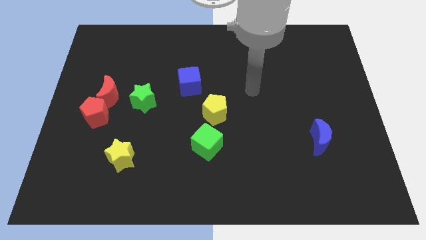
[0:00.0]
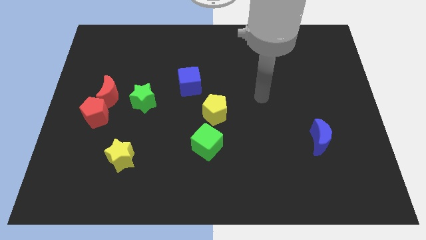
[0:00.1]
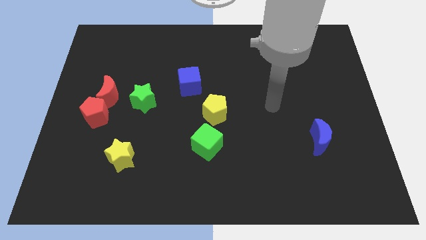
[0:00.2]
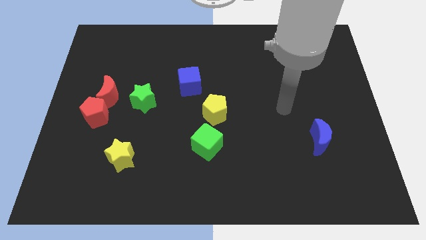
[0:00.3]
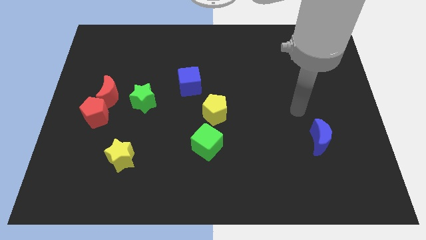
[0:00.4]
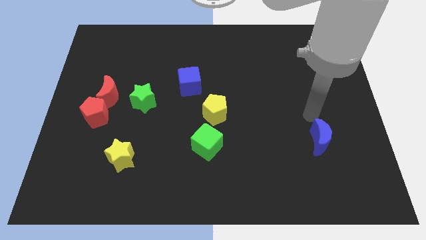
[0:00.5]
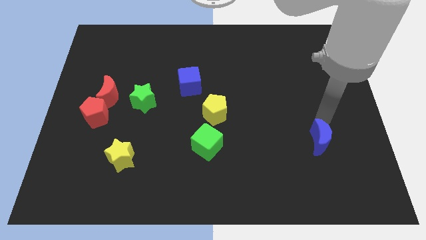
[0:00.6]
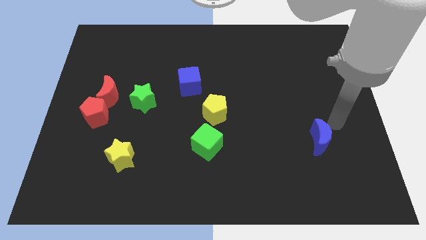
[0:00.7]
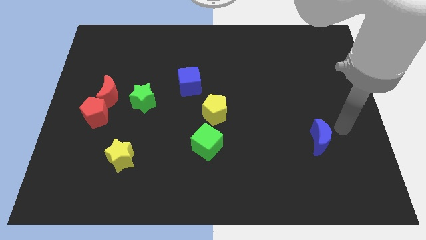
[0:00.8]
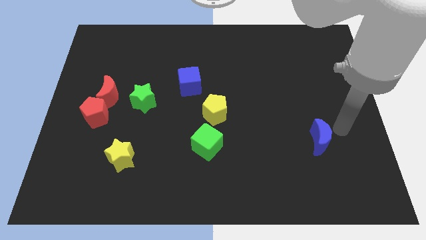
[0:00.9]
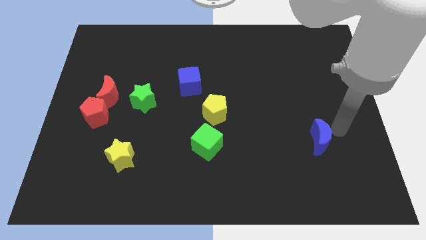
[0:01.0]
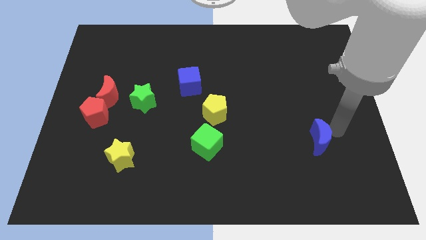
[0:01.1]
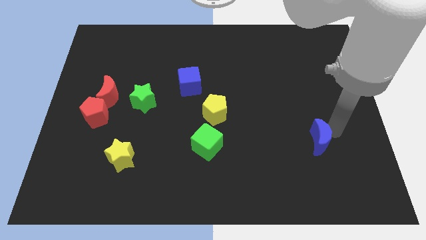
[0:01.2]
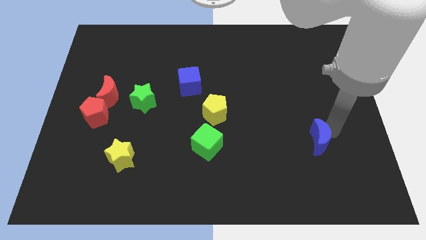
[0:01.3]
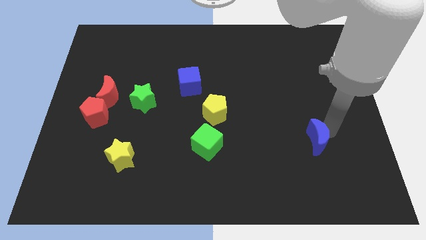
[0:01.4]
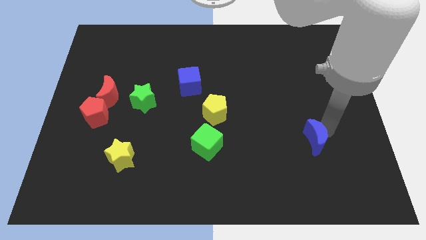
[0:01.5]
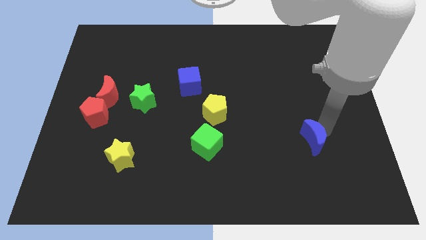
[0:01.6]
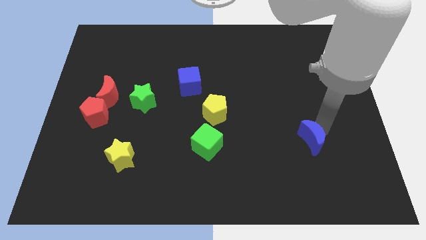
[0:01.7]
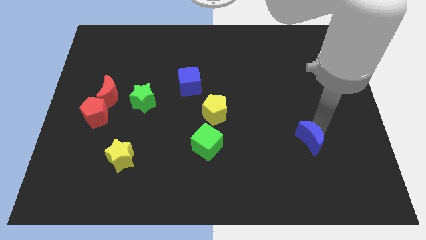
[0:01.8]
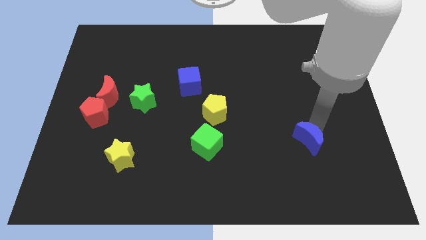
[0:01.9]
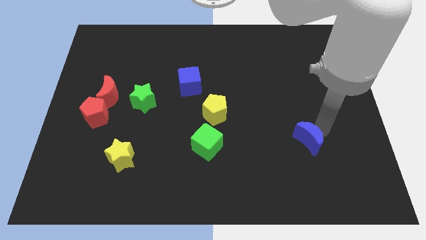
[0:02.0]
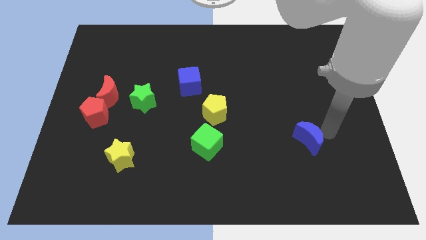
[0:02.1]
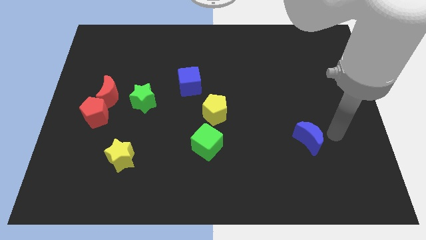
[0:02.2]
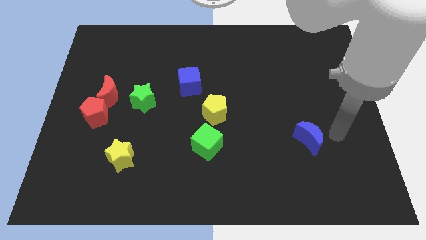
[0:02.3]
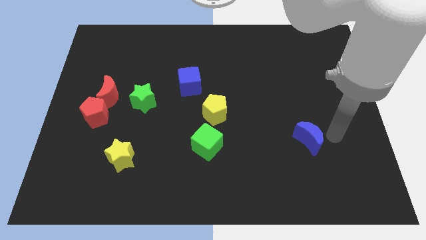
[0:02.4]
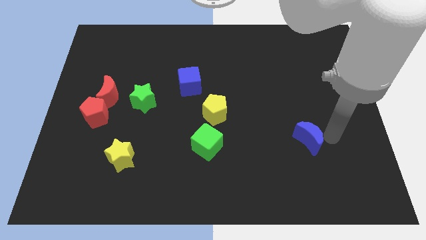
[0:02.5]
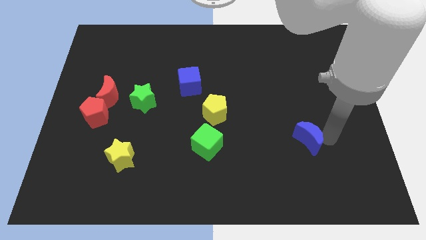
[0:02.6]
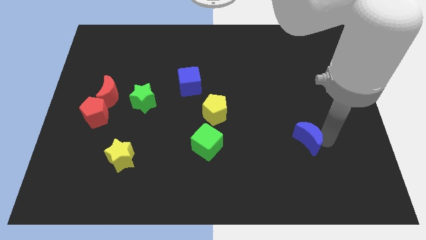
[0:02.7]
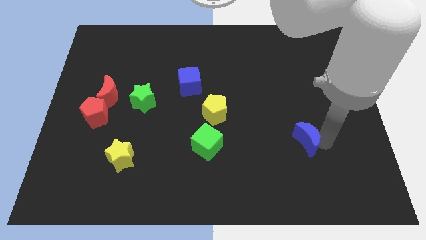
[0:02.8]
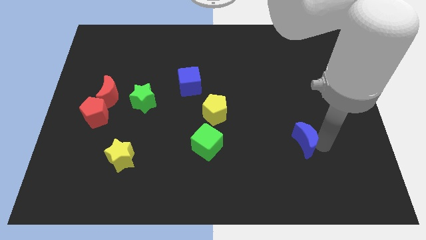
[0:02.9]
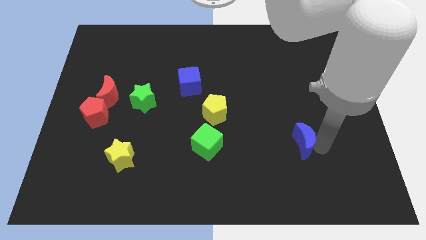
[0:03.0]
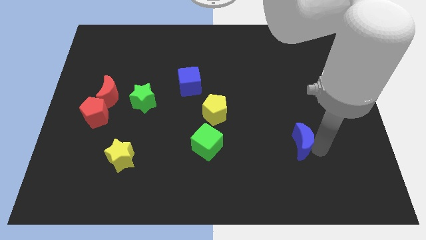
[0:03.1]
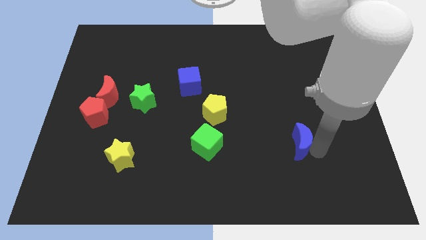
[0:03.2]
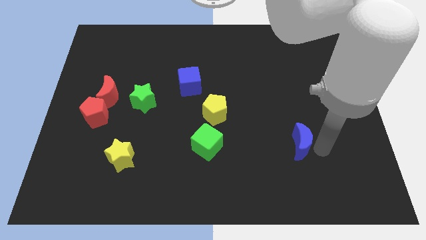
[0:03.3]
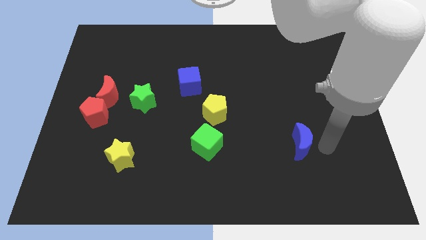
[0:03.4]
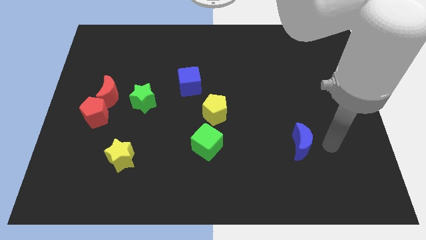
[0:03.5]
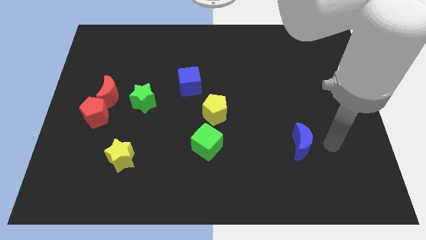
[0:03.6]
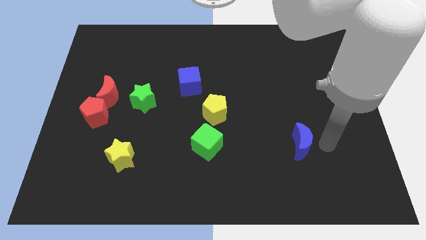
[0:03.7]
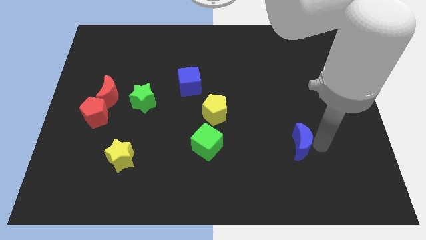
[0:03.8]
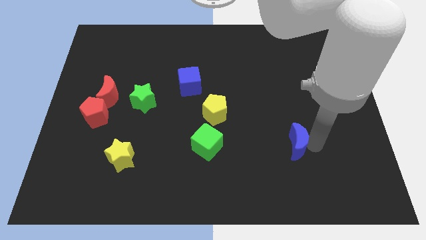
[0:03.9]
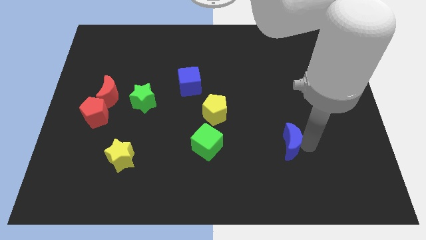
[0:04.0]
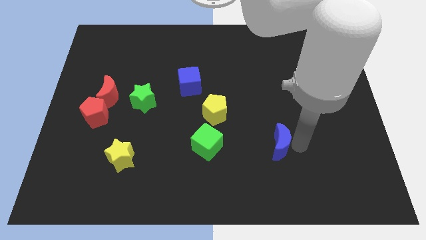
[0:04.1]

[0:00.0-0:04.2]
slide the blue moon to the left a bit

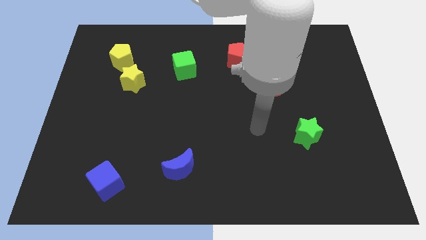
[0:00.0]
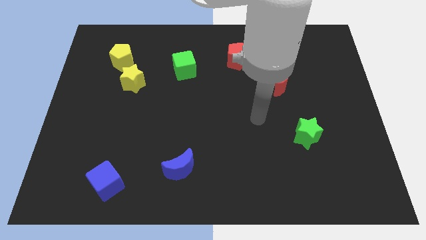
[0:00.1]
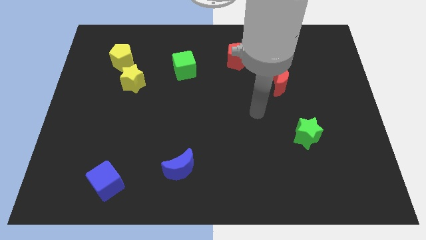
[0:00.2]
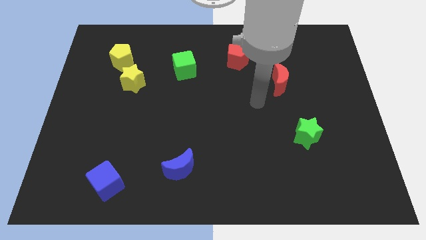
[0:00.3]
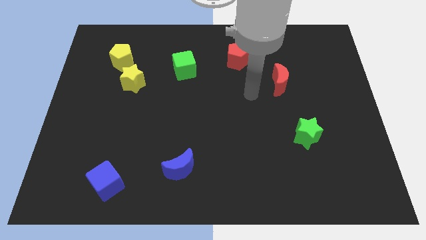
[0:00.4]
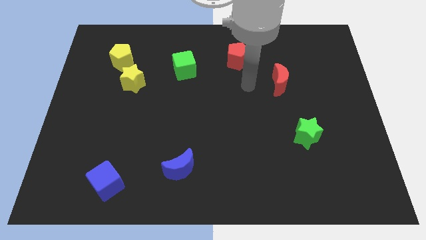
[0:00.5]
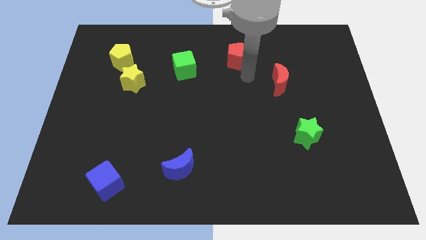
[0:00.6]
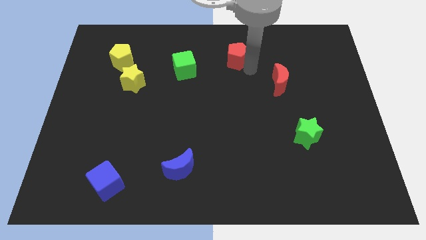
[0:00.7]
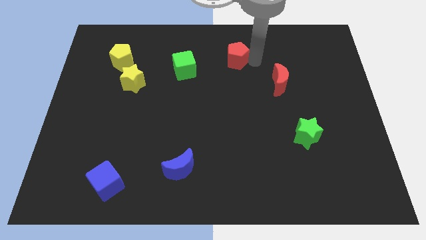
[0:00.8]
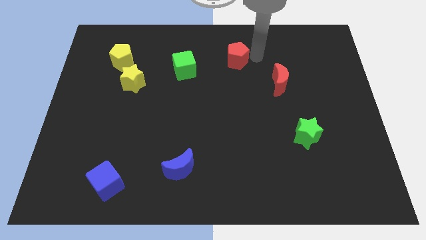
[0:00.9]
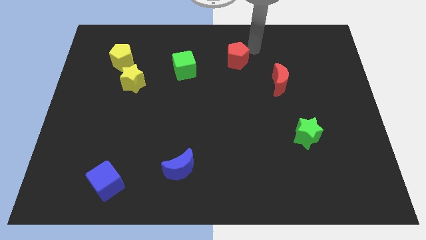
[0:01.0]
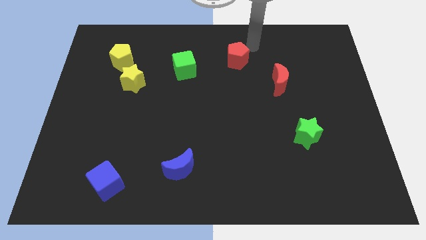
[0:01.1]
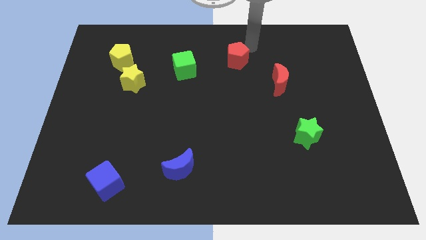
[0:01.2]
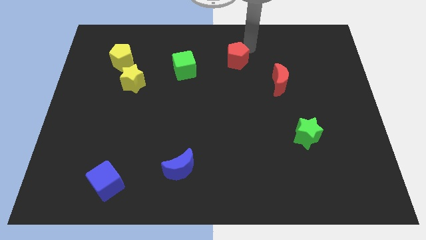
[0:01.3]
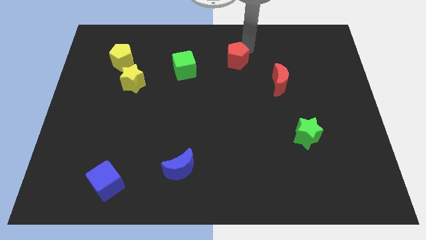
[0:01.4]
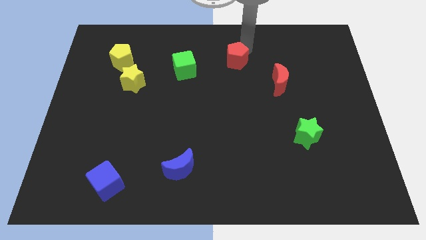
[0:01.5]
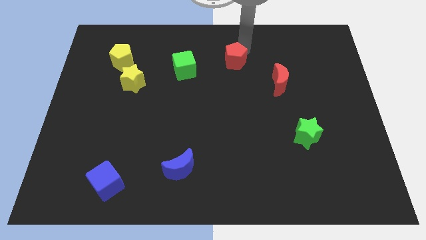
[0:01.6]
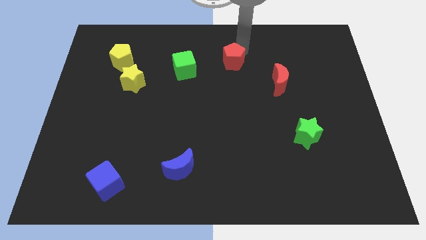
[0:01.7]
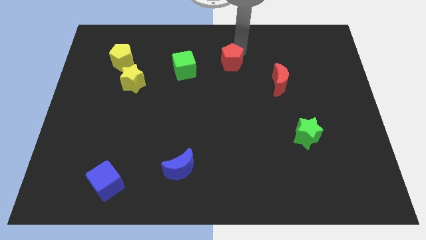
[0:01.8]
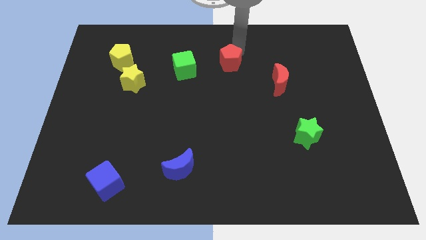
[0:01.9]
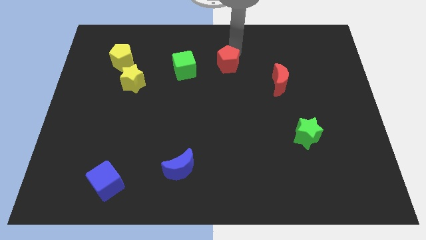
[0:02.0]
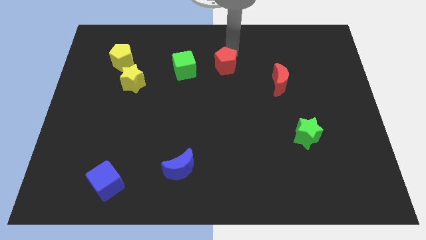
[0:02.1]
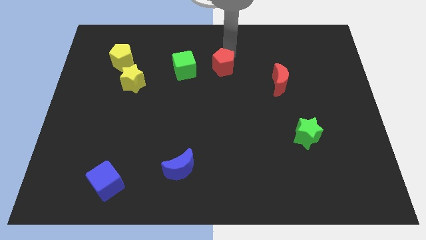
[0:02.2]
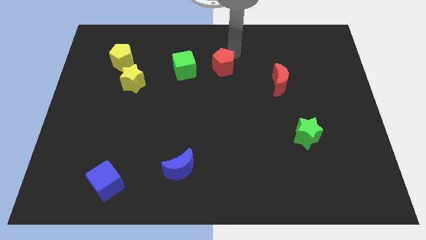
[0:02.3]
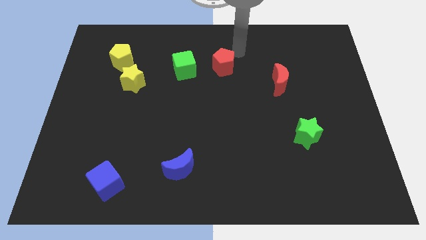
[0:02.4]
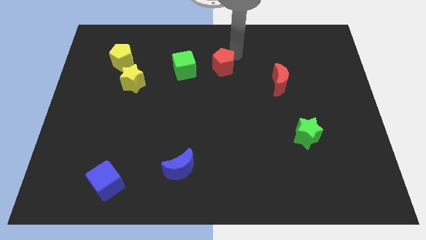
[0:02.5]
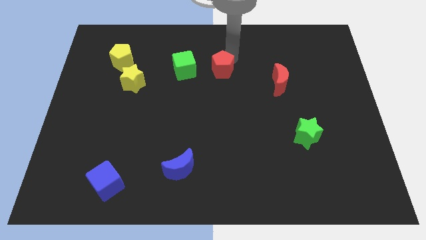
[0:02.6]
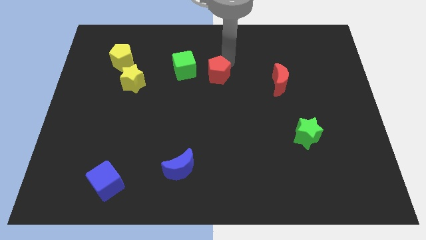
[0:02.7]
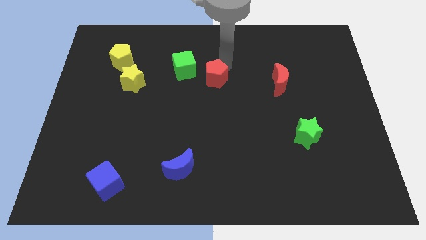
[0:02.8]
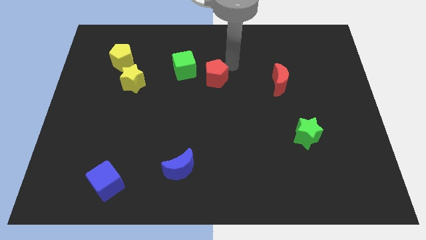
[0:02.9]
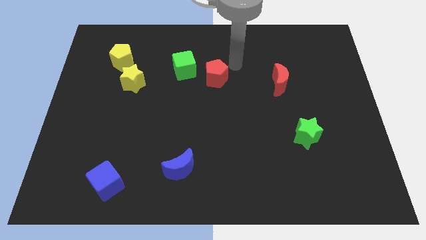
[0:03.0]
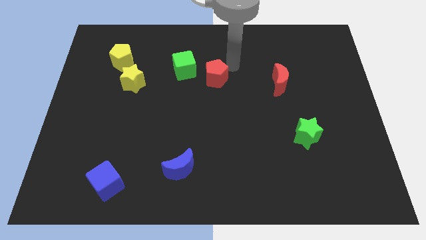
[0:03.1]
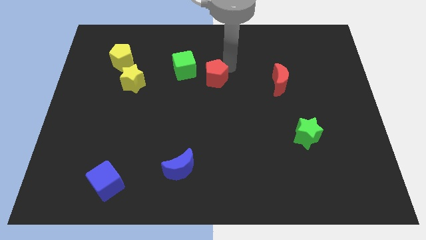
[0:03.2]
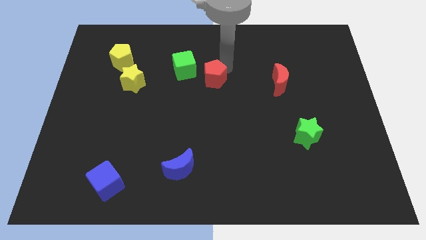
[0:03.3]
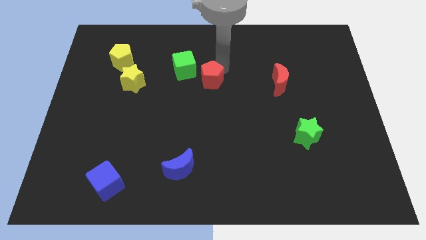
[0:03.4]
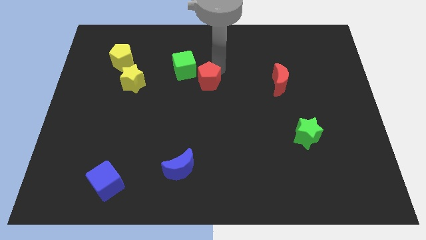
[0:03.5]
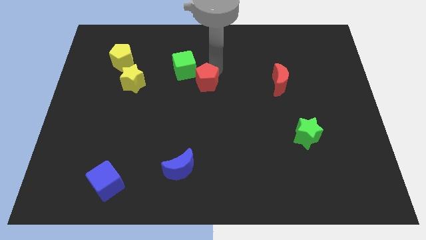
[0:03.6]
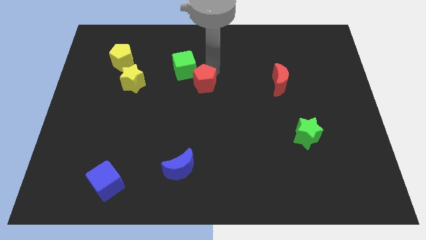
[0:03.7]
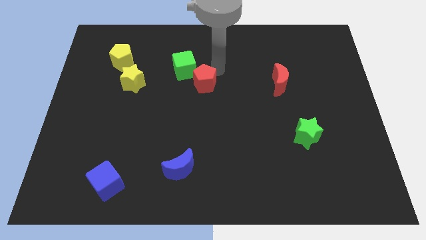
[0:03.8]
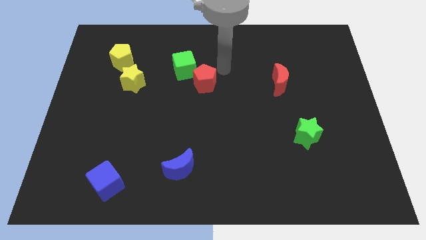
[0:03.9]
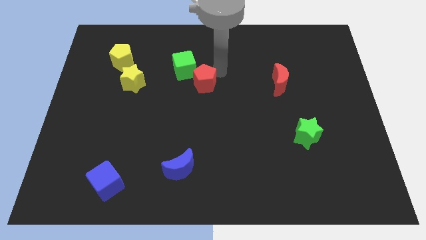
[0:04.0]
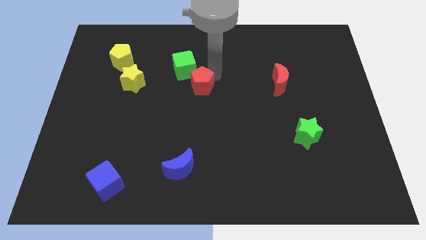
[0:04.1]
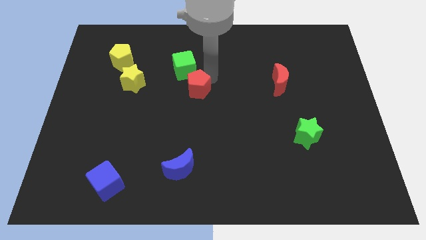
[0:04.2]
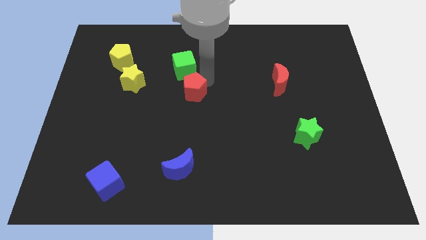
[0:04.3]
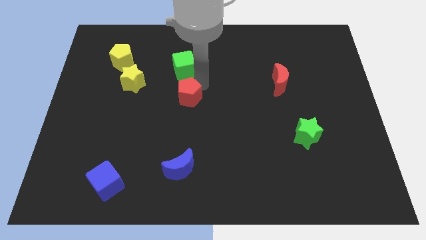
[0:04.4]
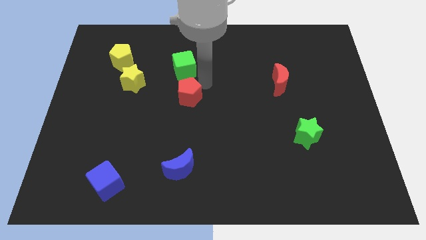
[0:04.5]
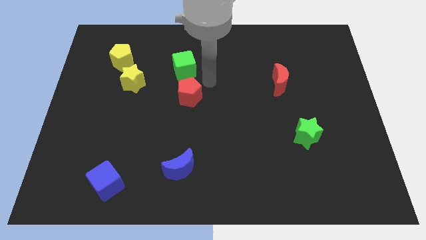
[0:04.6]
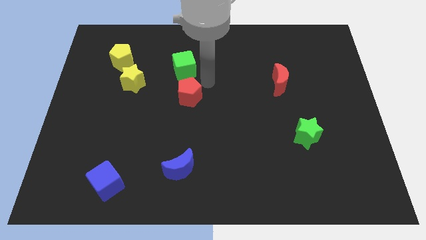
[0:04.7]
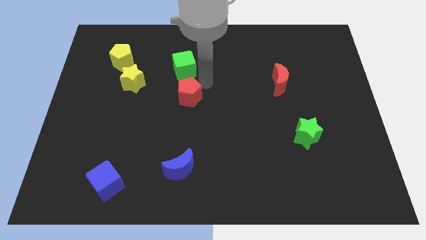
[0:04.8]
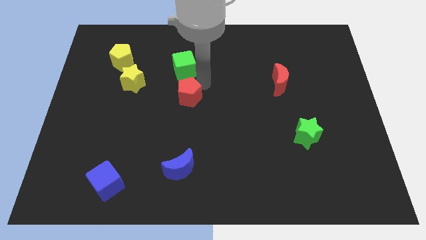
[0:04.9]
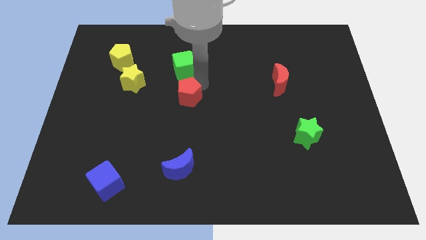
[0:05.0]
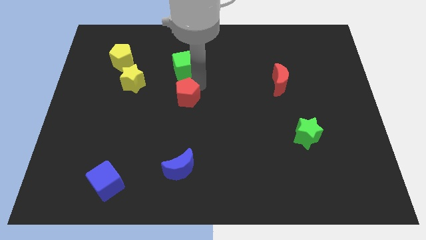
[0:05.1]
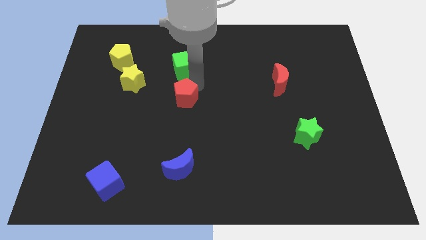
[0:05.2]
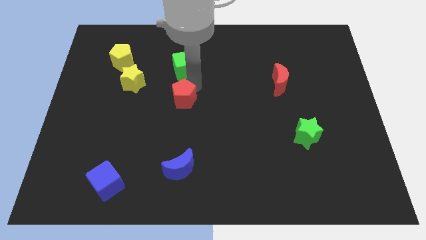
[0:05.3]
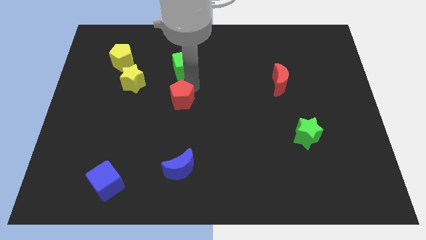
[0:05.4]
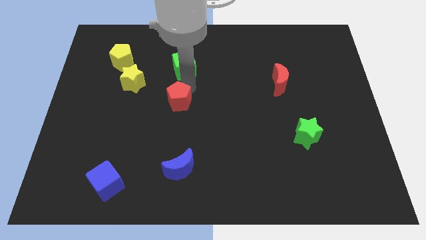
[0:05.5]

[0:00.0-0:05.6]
slide the red pentagon diagonally downwards and to the left
